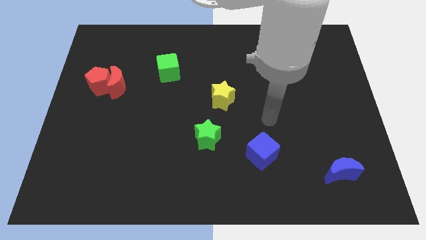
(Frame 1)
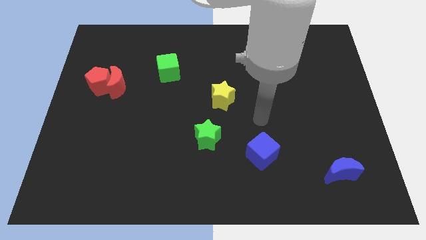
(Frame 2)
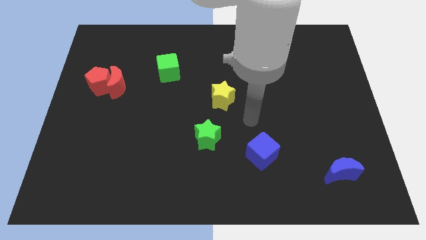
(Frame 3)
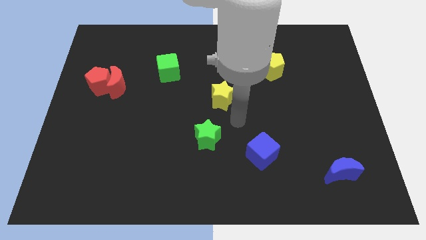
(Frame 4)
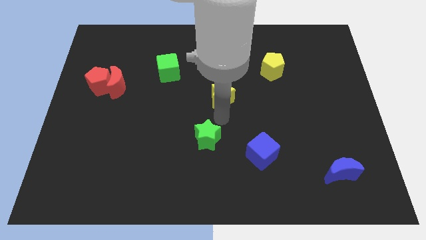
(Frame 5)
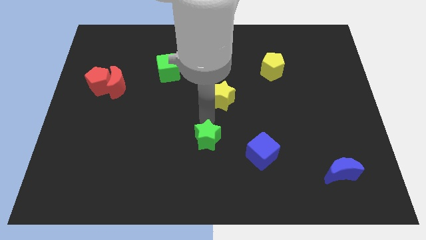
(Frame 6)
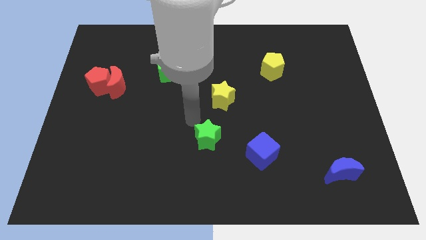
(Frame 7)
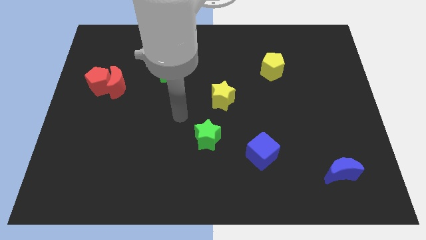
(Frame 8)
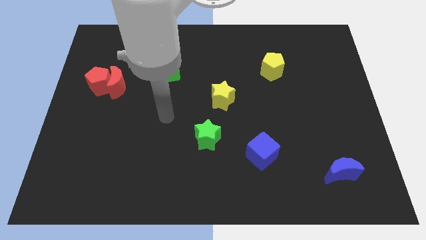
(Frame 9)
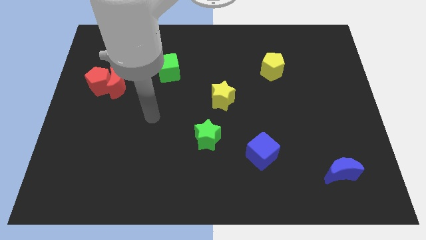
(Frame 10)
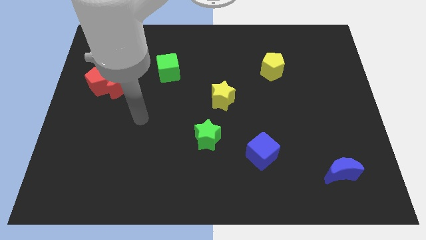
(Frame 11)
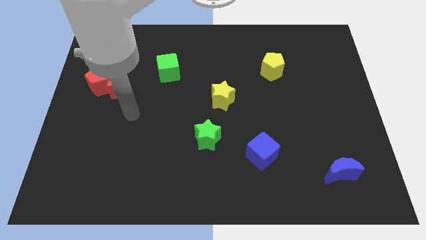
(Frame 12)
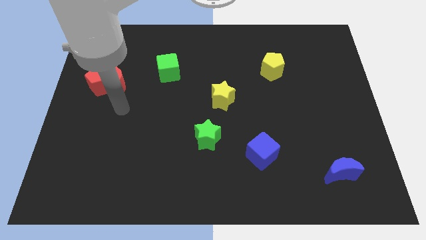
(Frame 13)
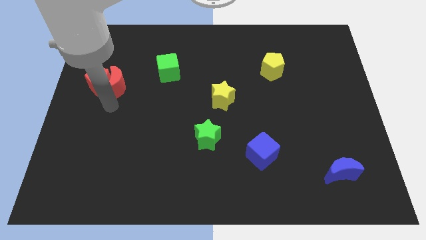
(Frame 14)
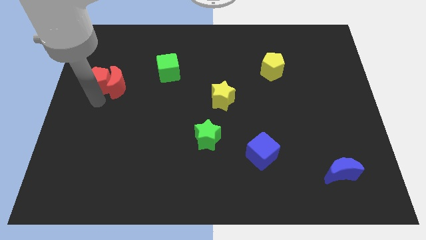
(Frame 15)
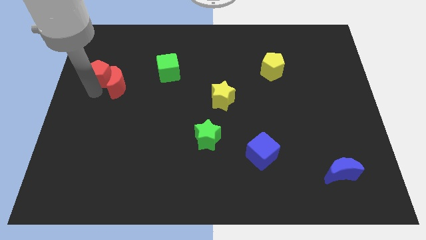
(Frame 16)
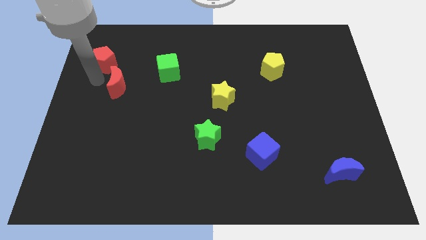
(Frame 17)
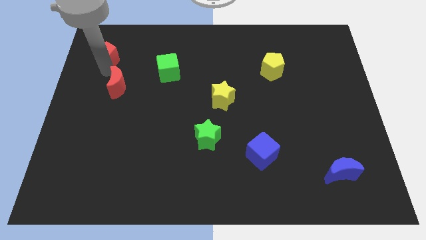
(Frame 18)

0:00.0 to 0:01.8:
pull the red moon apart from the red pentagon

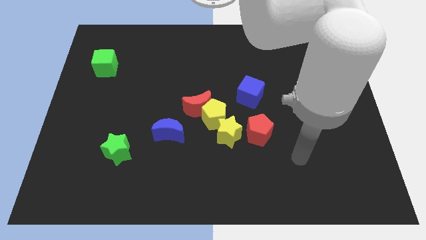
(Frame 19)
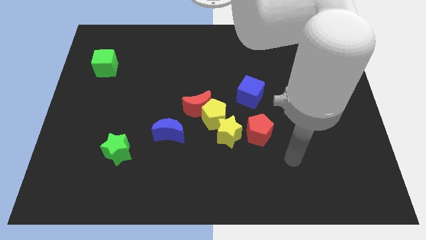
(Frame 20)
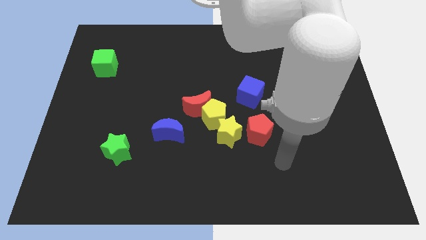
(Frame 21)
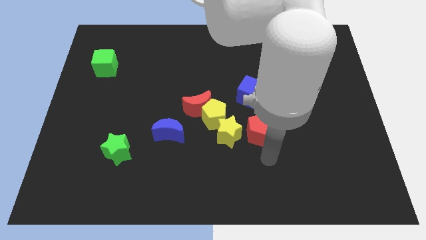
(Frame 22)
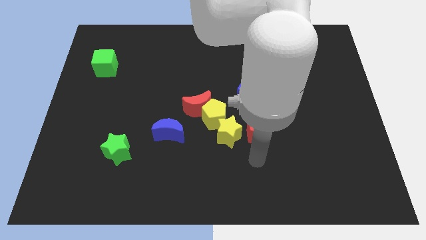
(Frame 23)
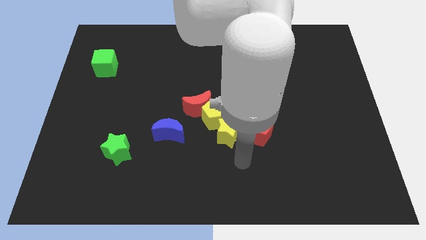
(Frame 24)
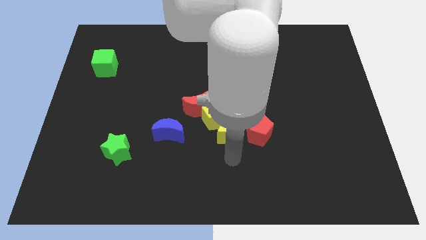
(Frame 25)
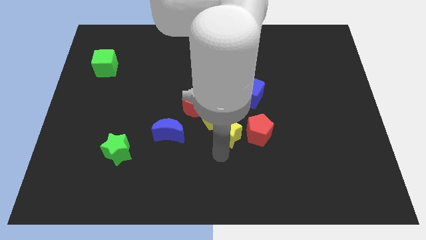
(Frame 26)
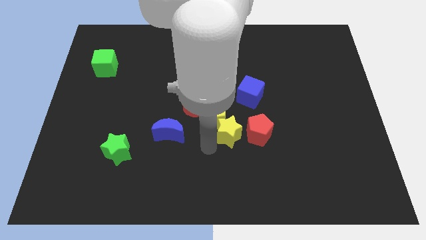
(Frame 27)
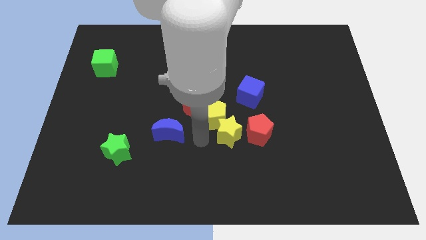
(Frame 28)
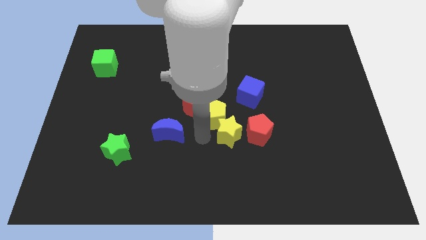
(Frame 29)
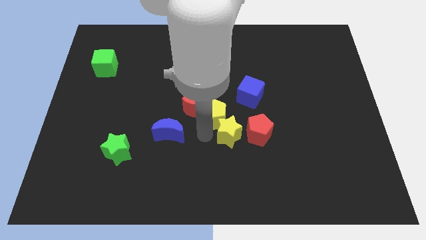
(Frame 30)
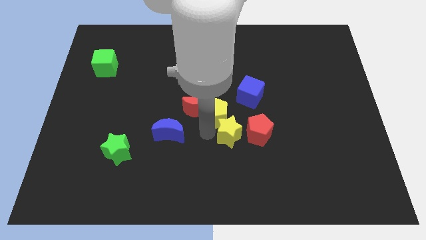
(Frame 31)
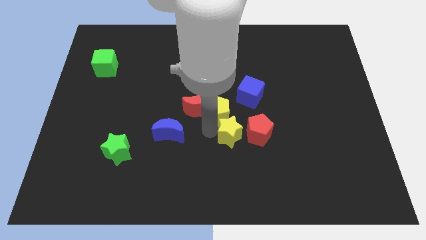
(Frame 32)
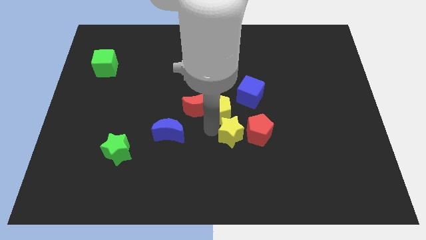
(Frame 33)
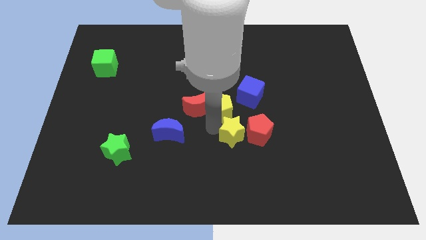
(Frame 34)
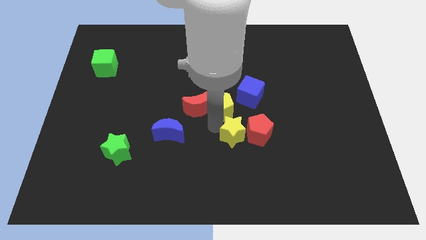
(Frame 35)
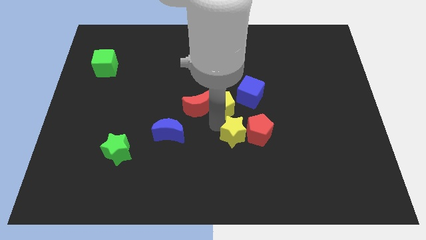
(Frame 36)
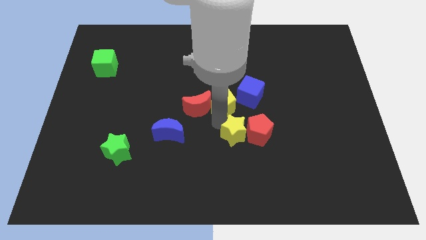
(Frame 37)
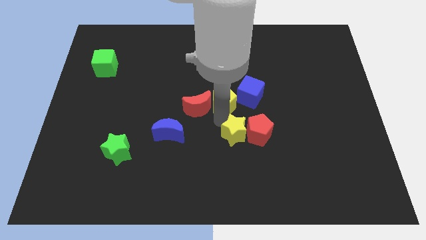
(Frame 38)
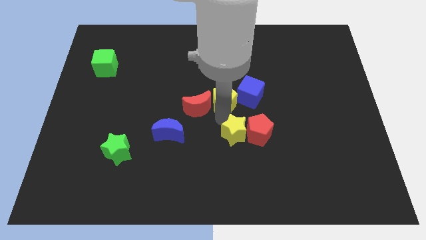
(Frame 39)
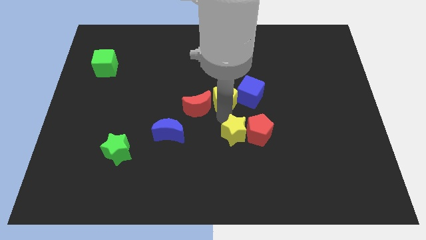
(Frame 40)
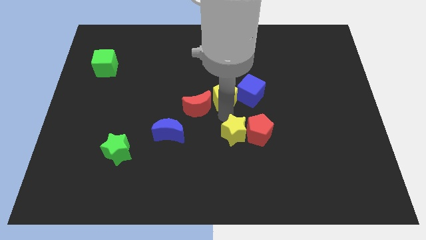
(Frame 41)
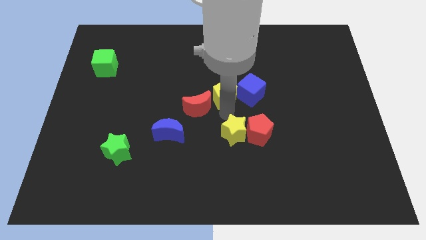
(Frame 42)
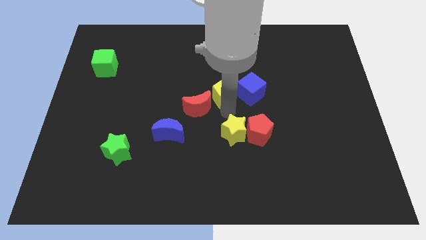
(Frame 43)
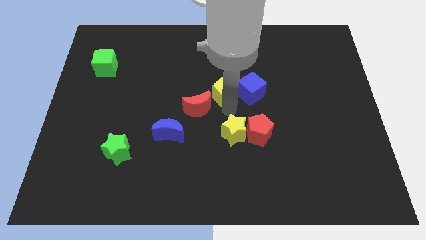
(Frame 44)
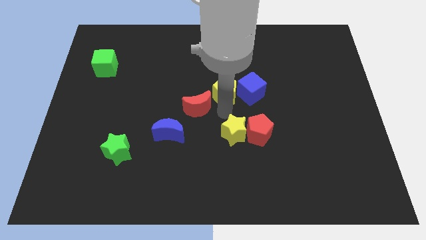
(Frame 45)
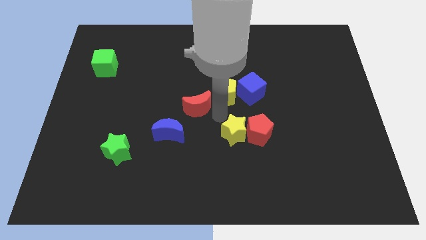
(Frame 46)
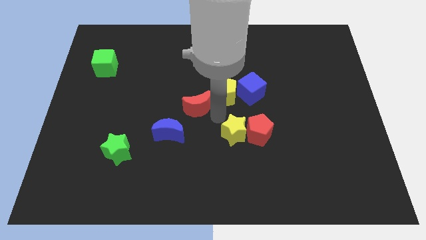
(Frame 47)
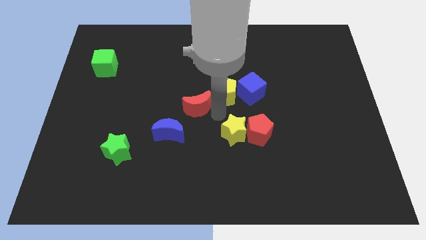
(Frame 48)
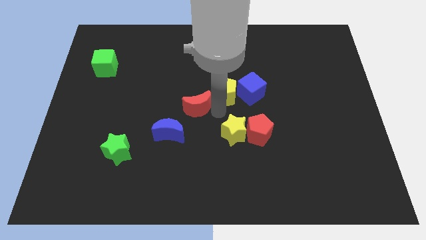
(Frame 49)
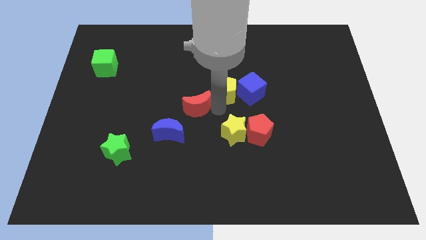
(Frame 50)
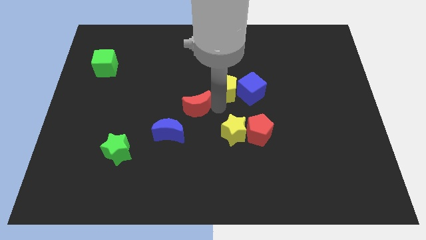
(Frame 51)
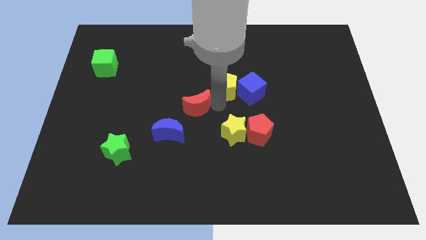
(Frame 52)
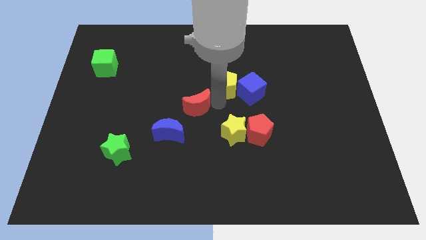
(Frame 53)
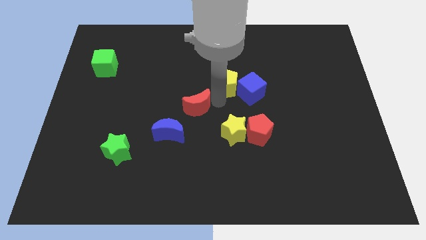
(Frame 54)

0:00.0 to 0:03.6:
separate the yellow pentagon from the red moon and yellow star

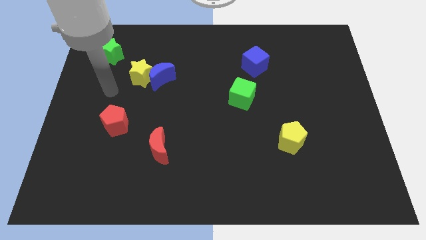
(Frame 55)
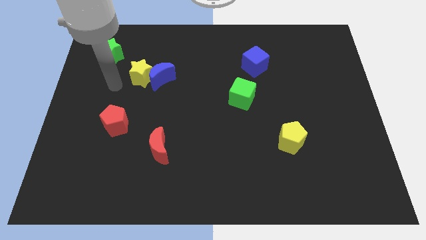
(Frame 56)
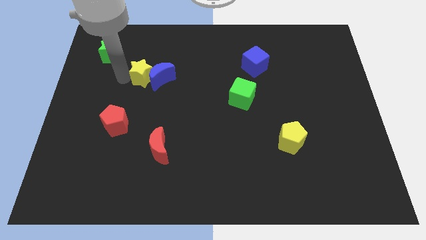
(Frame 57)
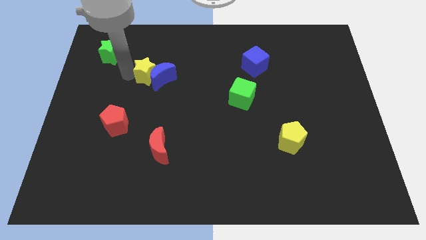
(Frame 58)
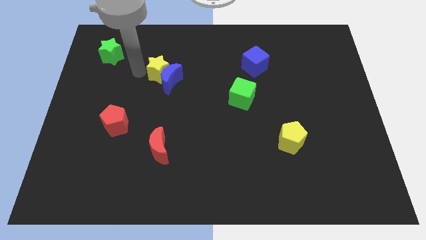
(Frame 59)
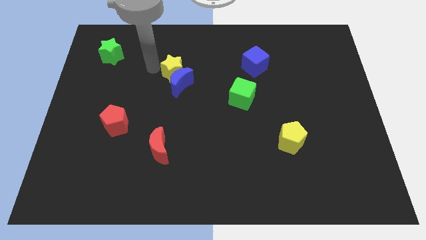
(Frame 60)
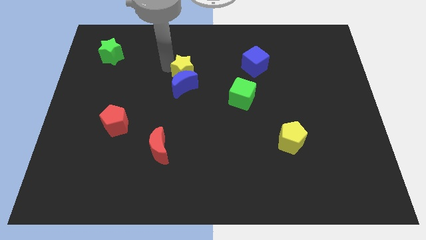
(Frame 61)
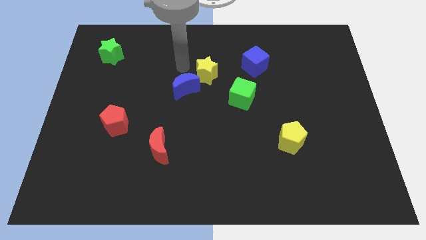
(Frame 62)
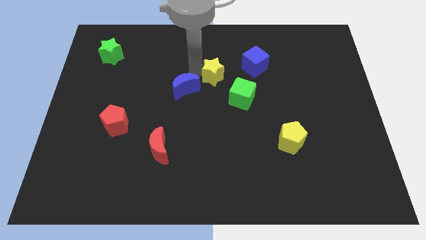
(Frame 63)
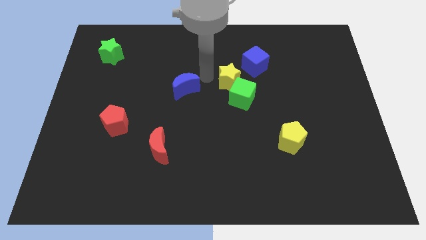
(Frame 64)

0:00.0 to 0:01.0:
move the blue moon away from the yellow star

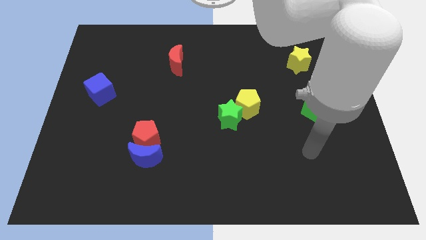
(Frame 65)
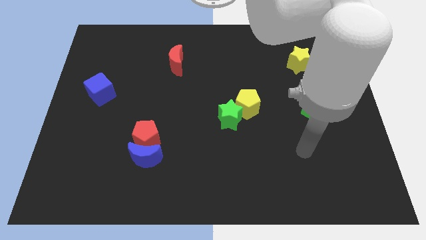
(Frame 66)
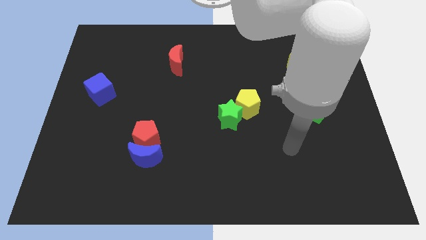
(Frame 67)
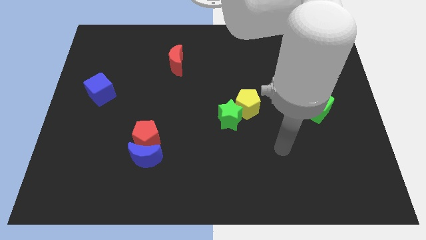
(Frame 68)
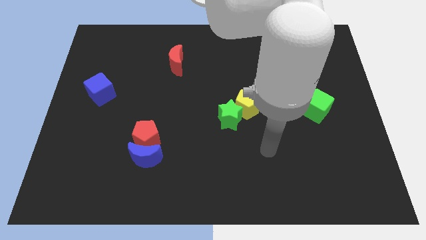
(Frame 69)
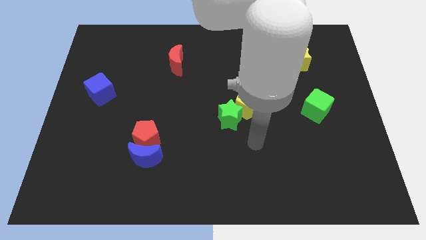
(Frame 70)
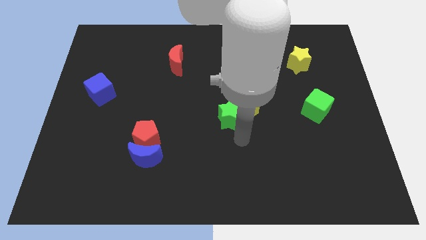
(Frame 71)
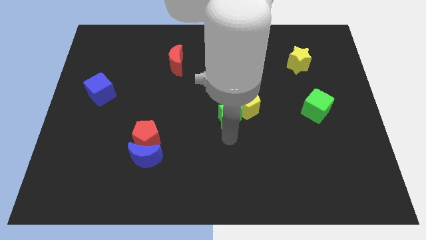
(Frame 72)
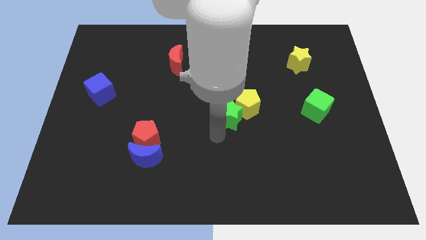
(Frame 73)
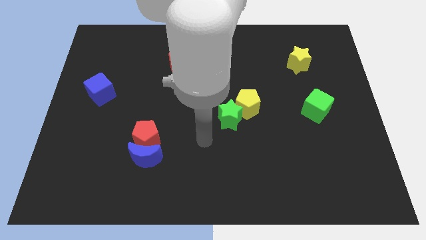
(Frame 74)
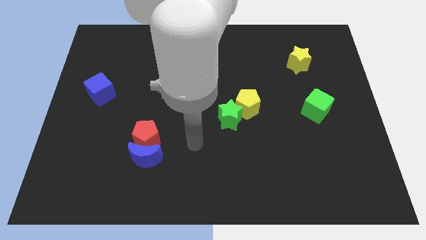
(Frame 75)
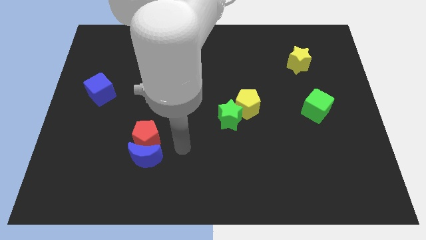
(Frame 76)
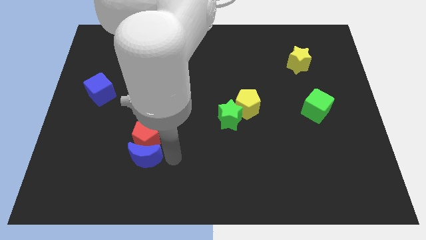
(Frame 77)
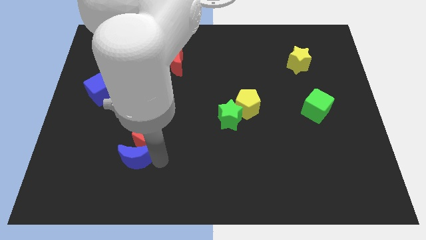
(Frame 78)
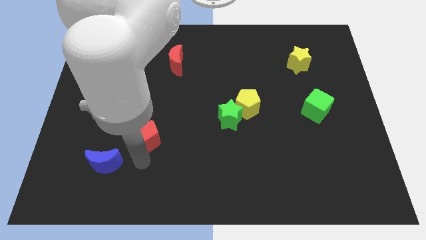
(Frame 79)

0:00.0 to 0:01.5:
move the red pentagon away from the blue moon

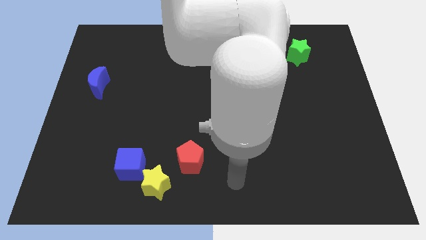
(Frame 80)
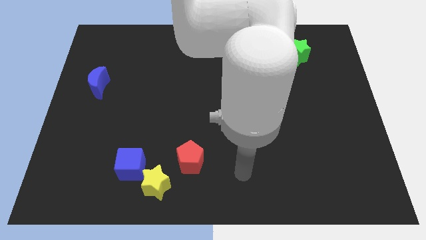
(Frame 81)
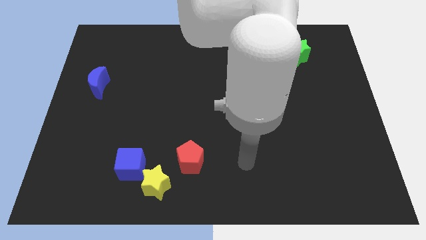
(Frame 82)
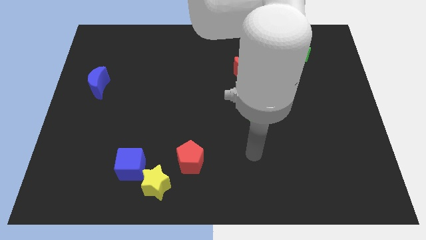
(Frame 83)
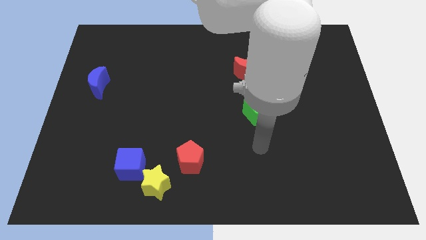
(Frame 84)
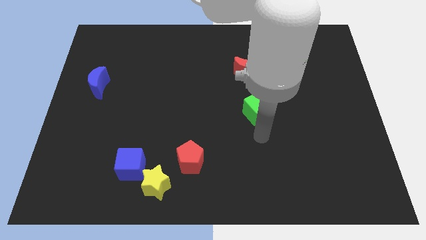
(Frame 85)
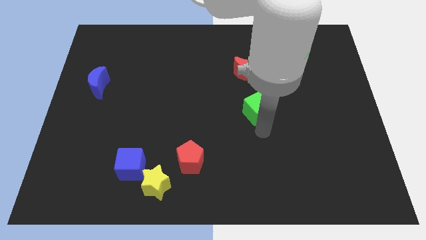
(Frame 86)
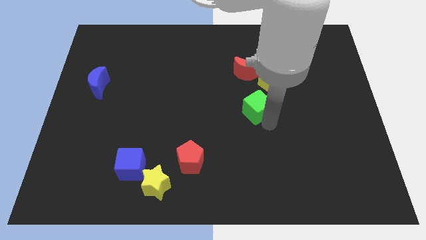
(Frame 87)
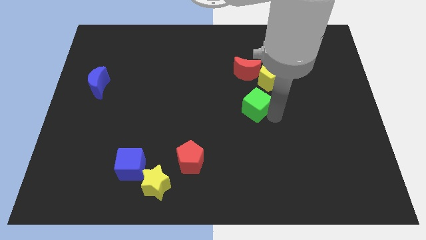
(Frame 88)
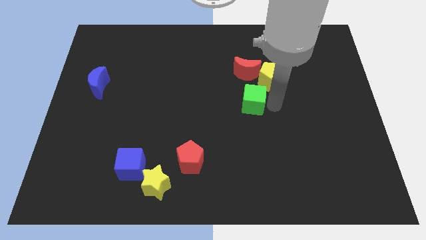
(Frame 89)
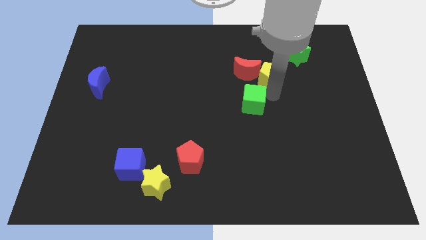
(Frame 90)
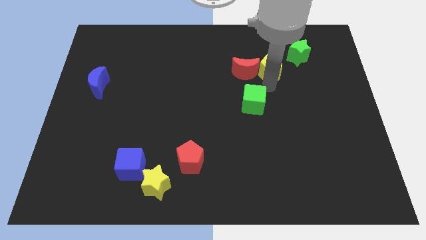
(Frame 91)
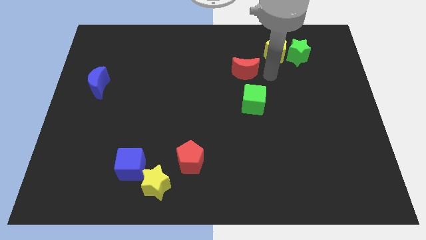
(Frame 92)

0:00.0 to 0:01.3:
move the red moon away from the yellow pentagon
